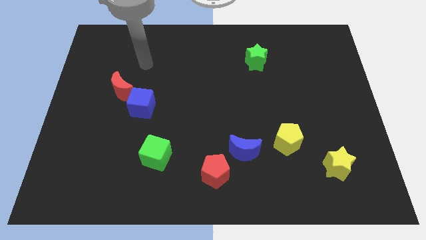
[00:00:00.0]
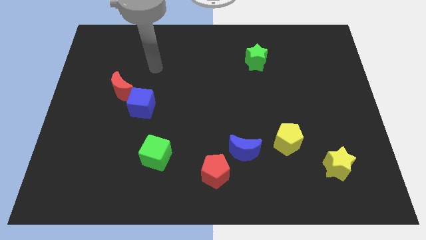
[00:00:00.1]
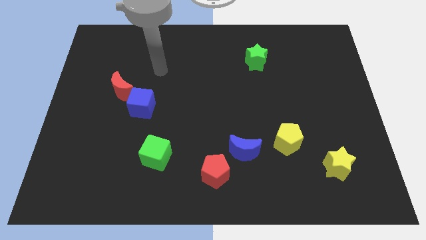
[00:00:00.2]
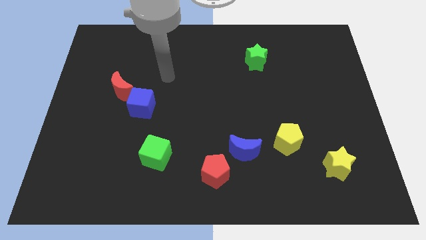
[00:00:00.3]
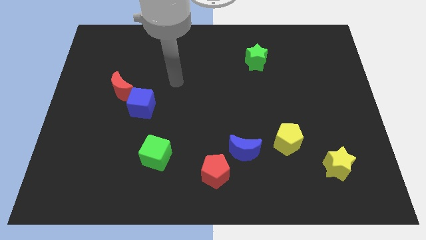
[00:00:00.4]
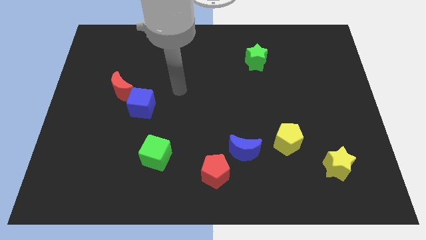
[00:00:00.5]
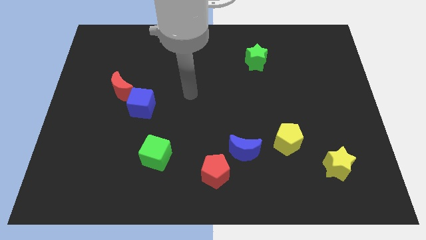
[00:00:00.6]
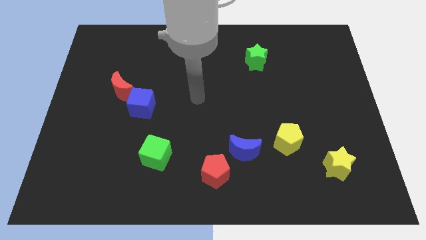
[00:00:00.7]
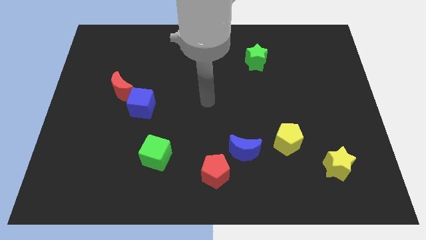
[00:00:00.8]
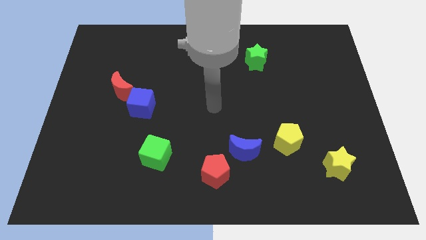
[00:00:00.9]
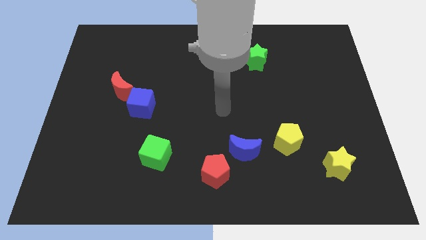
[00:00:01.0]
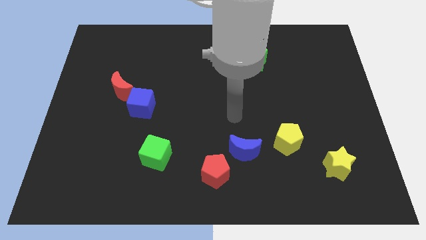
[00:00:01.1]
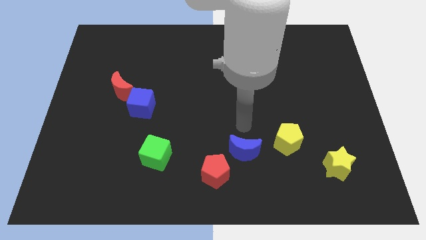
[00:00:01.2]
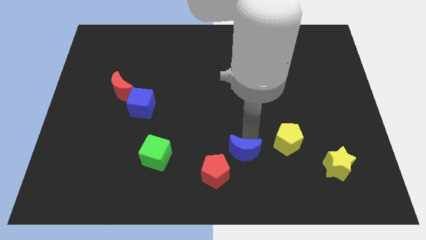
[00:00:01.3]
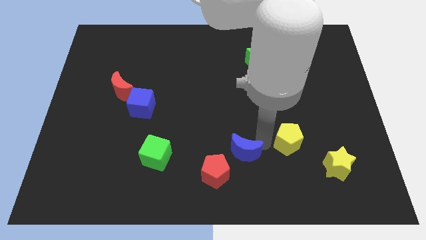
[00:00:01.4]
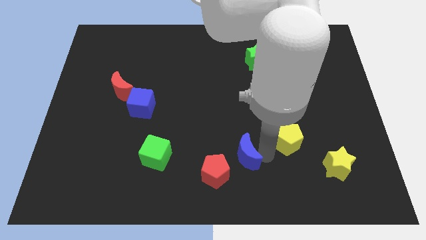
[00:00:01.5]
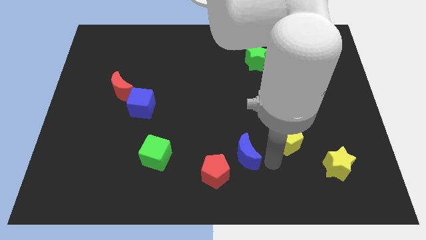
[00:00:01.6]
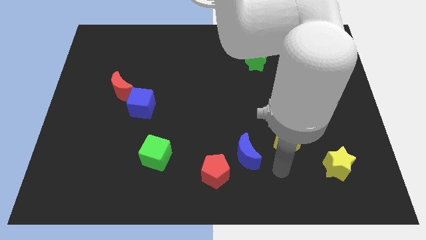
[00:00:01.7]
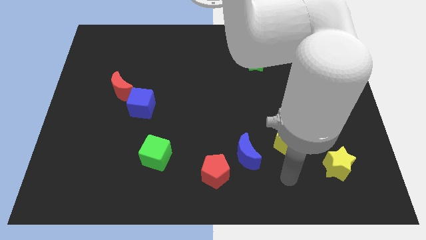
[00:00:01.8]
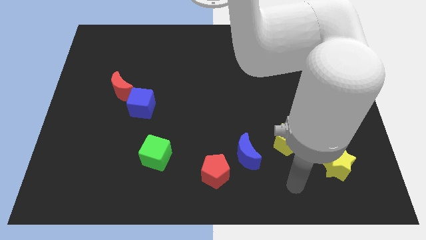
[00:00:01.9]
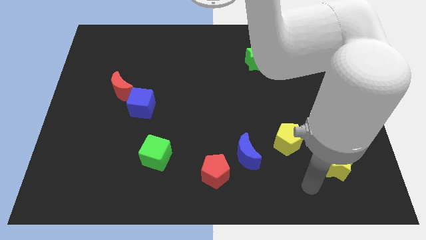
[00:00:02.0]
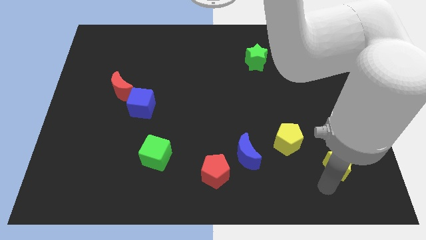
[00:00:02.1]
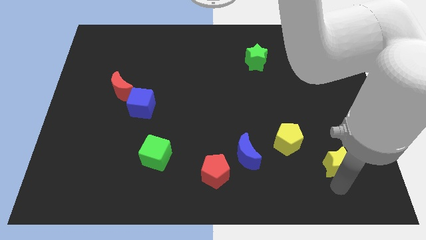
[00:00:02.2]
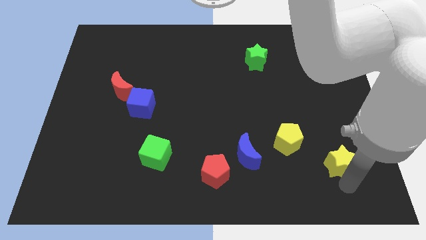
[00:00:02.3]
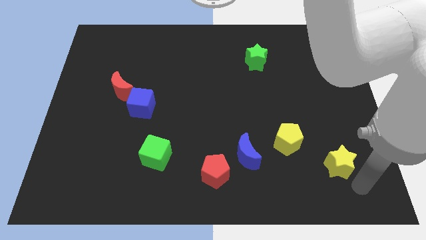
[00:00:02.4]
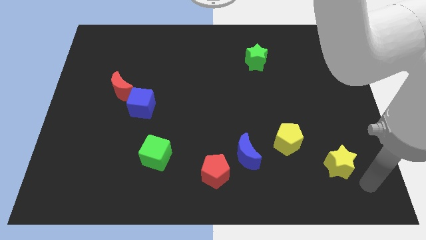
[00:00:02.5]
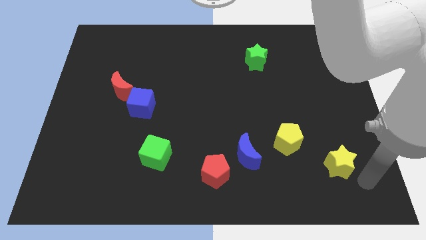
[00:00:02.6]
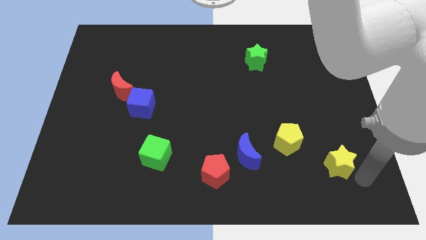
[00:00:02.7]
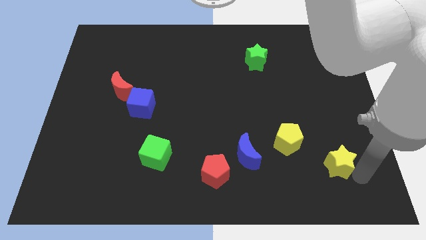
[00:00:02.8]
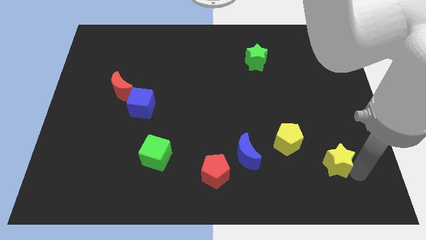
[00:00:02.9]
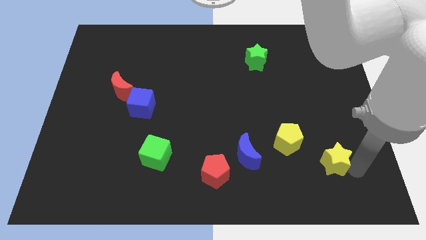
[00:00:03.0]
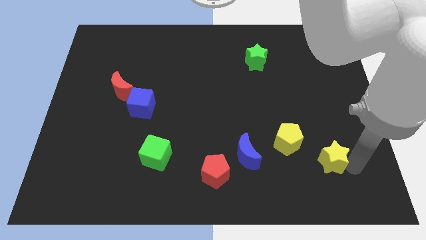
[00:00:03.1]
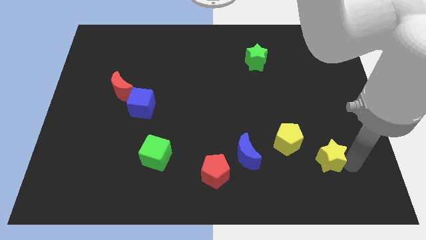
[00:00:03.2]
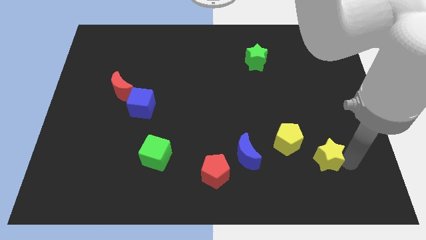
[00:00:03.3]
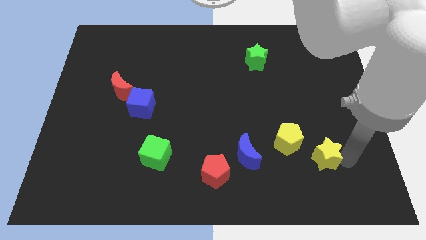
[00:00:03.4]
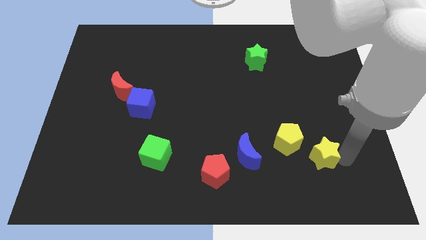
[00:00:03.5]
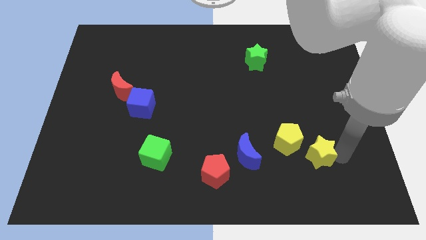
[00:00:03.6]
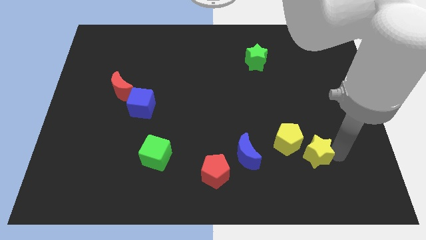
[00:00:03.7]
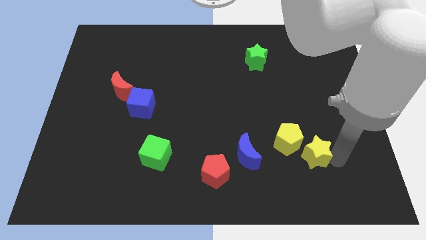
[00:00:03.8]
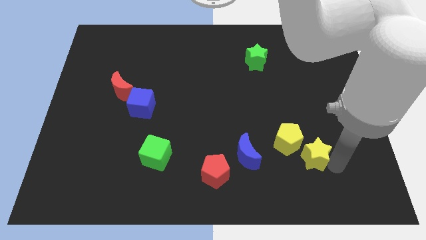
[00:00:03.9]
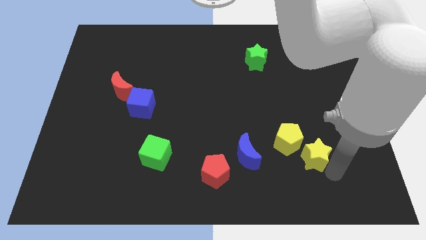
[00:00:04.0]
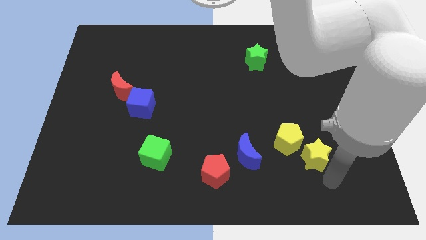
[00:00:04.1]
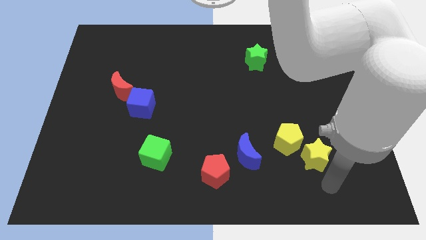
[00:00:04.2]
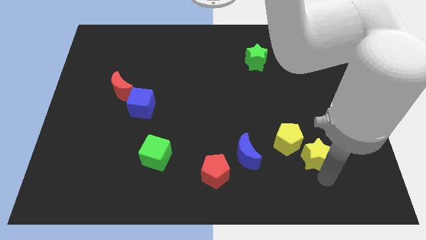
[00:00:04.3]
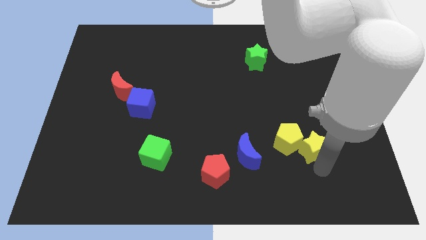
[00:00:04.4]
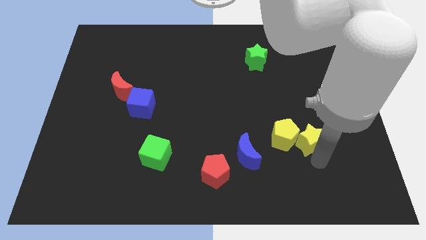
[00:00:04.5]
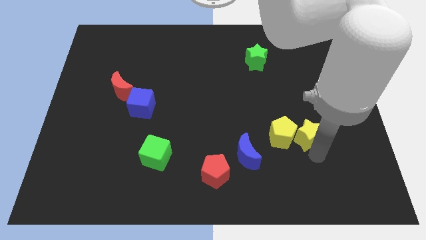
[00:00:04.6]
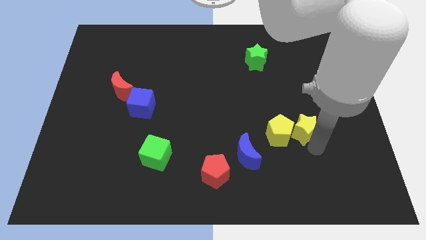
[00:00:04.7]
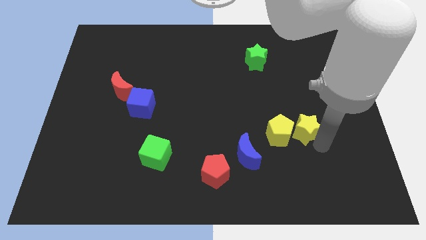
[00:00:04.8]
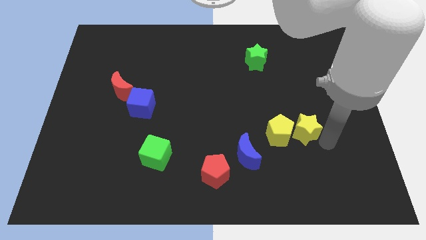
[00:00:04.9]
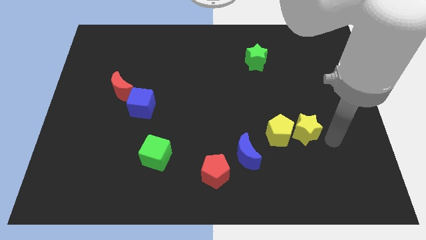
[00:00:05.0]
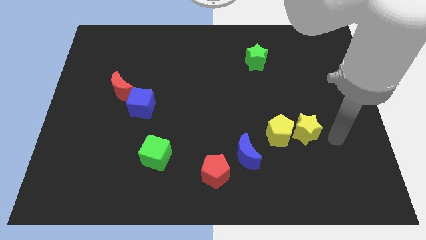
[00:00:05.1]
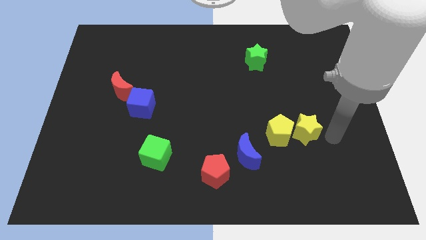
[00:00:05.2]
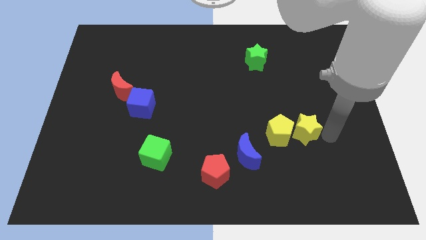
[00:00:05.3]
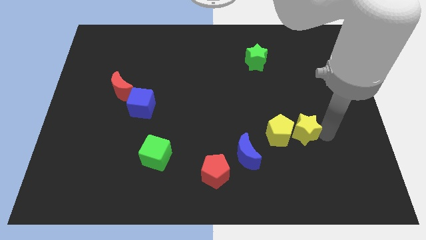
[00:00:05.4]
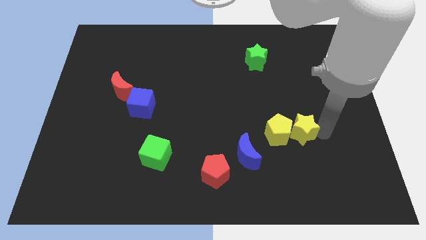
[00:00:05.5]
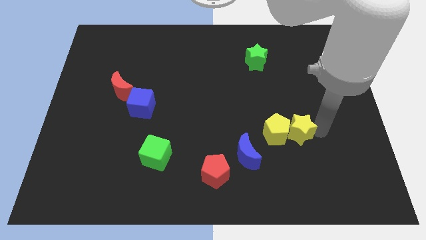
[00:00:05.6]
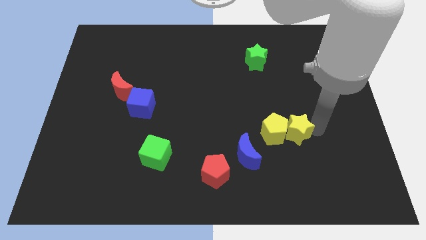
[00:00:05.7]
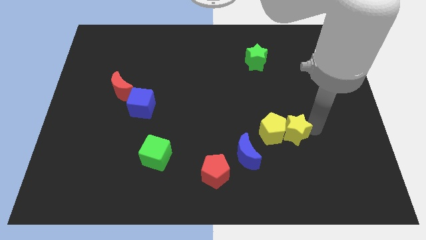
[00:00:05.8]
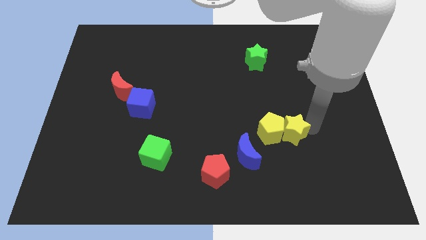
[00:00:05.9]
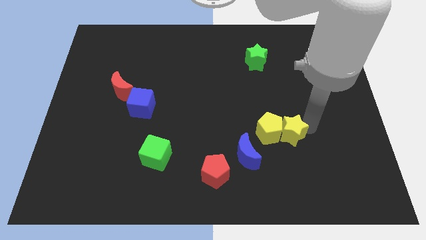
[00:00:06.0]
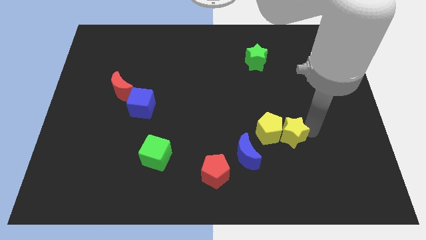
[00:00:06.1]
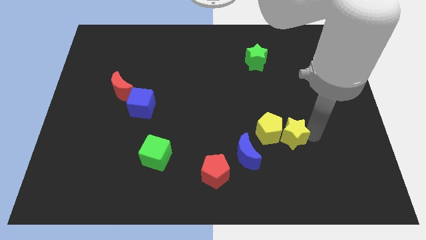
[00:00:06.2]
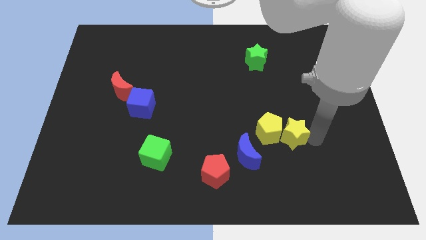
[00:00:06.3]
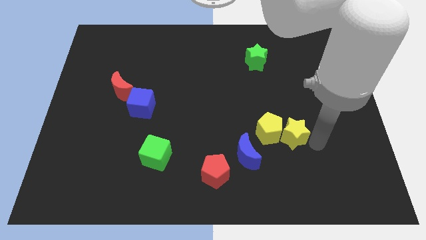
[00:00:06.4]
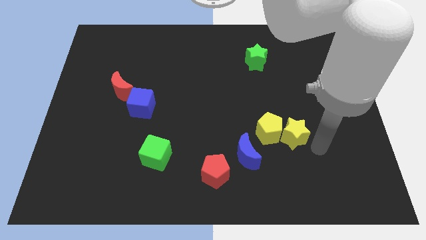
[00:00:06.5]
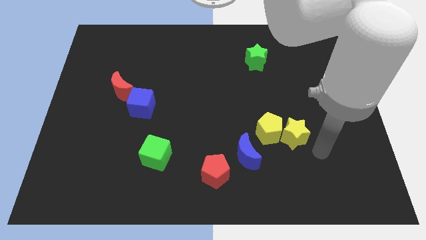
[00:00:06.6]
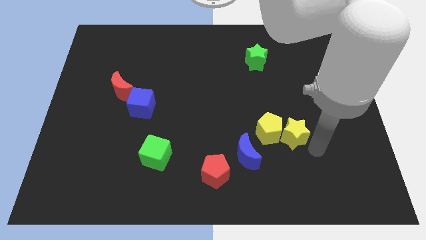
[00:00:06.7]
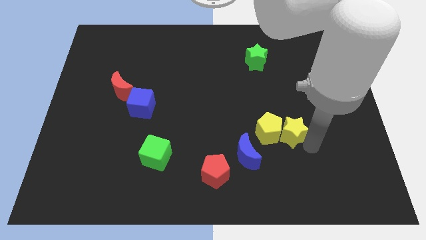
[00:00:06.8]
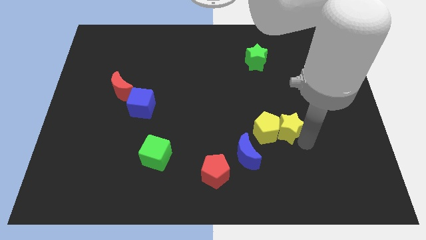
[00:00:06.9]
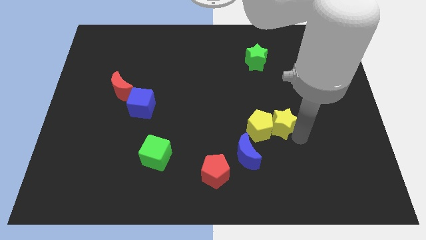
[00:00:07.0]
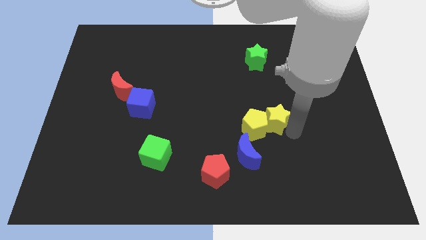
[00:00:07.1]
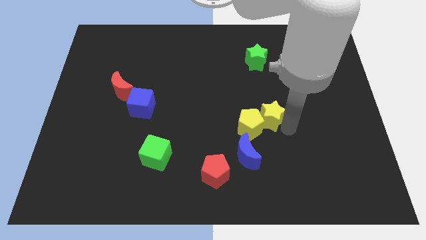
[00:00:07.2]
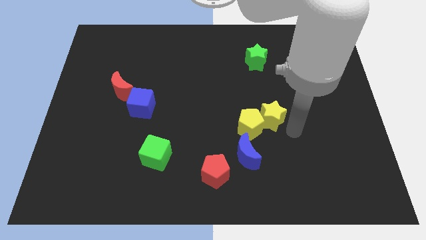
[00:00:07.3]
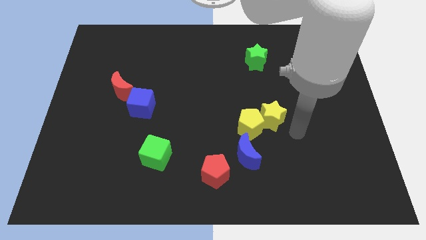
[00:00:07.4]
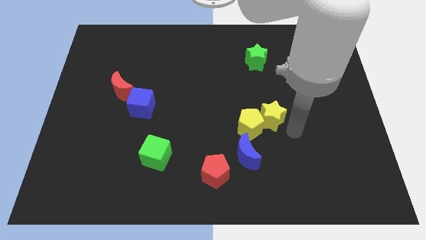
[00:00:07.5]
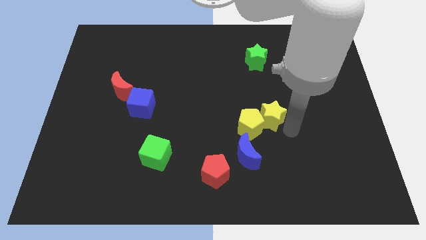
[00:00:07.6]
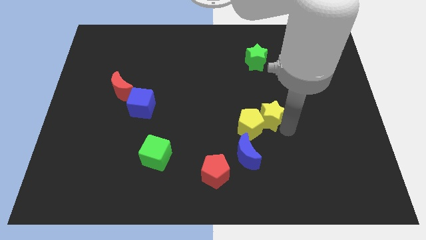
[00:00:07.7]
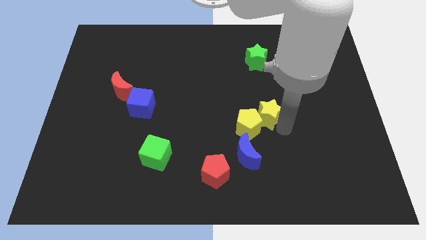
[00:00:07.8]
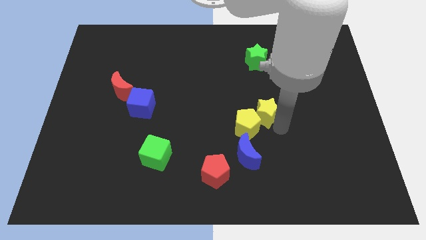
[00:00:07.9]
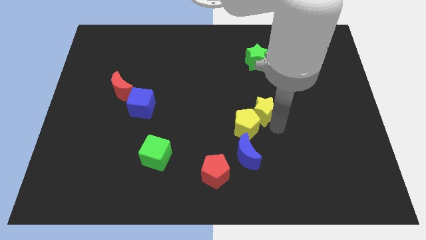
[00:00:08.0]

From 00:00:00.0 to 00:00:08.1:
move the yellow star upwards and then to the left

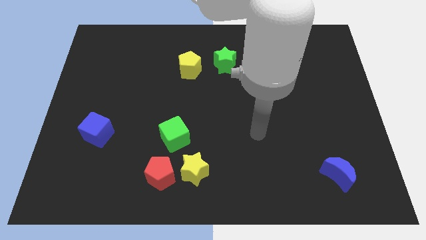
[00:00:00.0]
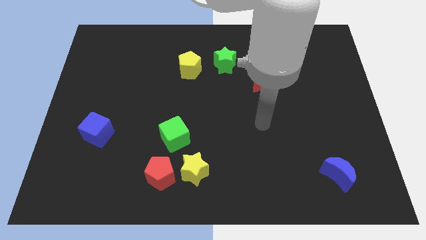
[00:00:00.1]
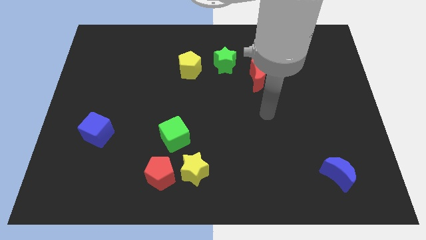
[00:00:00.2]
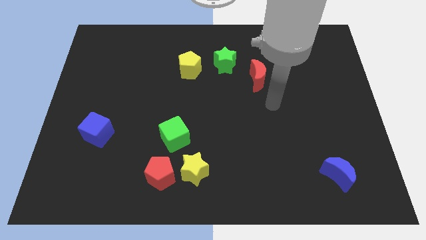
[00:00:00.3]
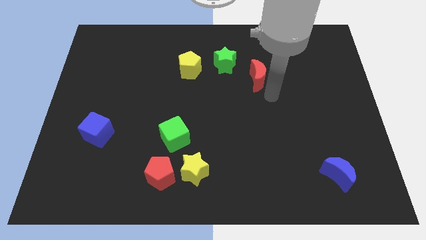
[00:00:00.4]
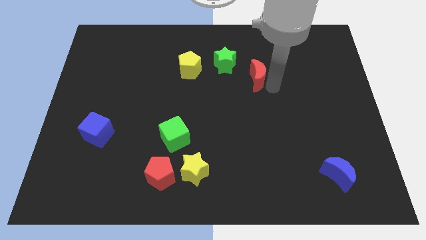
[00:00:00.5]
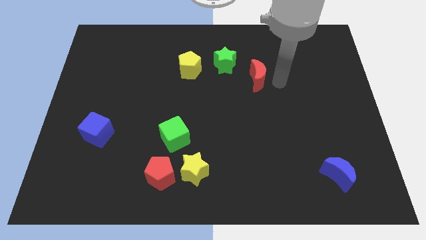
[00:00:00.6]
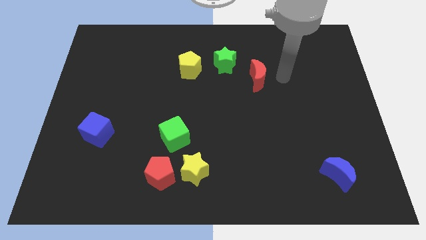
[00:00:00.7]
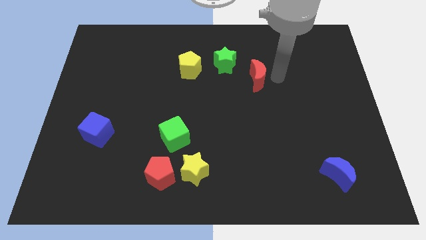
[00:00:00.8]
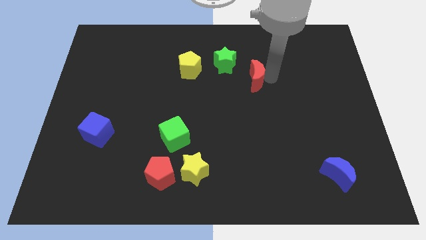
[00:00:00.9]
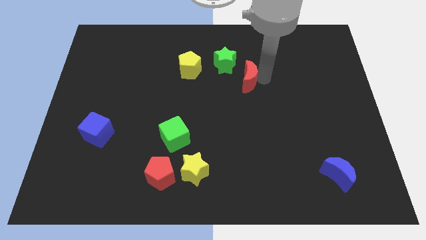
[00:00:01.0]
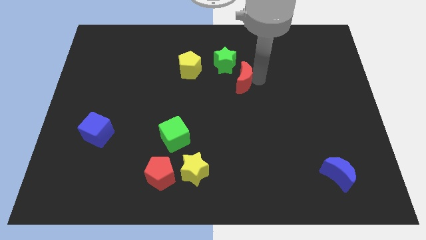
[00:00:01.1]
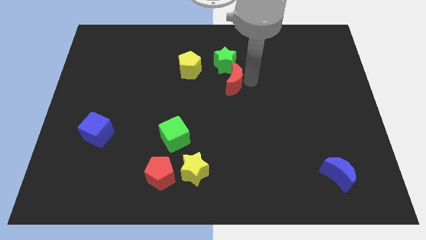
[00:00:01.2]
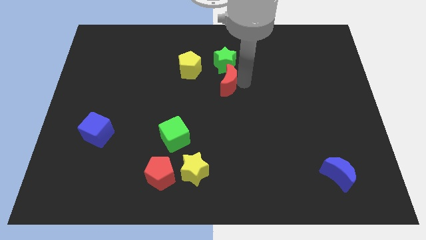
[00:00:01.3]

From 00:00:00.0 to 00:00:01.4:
push the red moon to the left somewhat
